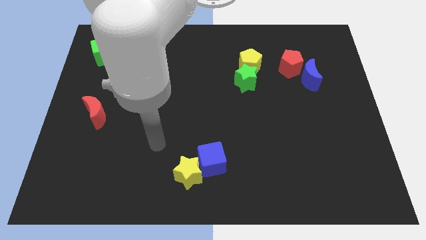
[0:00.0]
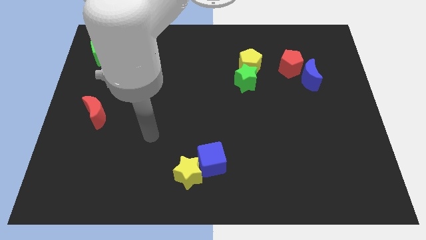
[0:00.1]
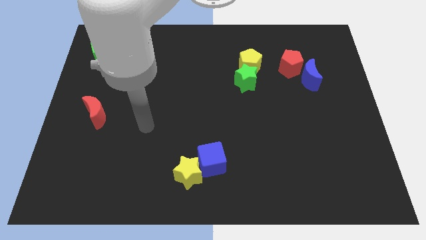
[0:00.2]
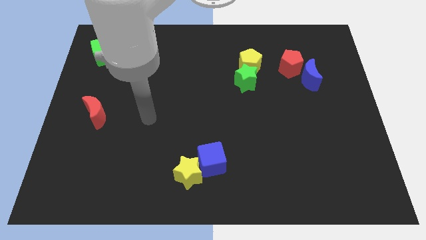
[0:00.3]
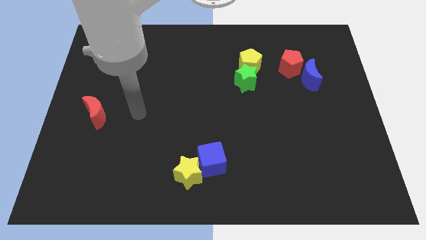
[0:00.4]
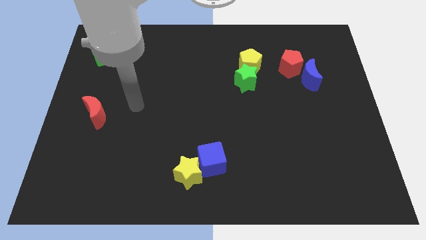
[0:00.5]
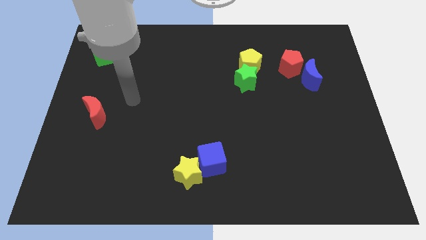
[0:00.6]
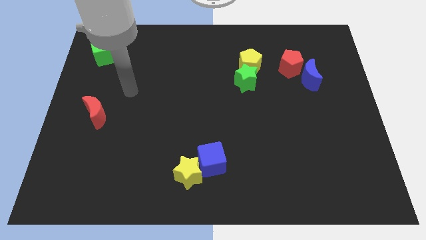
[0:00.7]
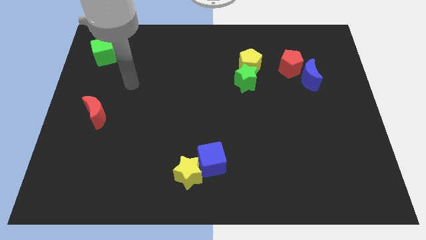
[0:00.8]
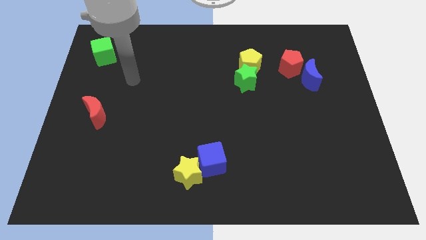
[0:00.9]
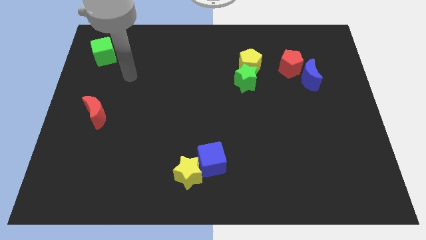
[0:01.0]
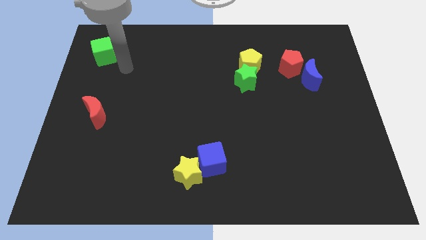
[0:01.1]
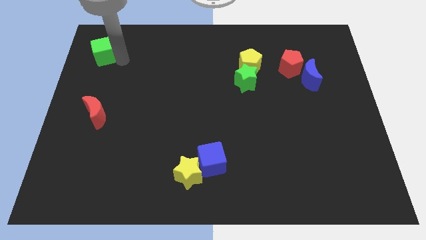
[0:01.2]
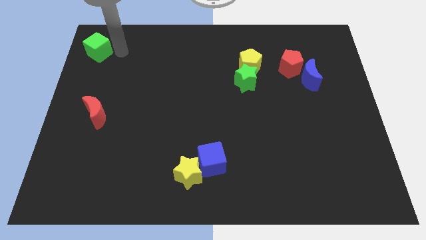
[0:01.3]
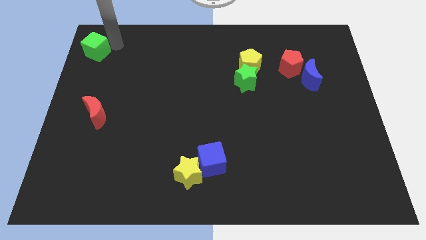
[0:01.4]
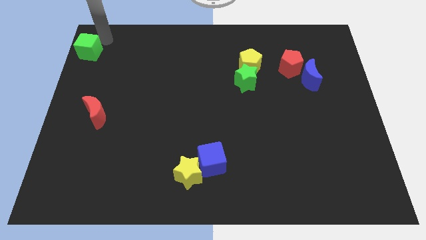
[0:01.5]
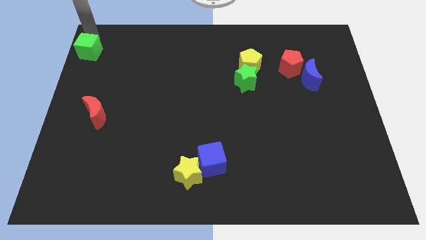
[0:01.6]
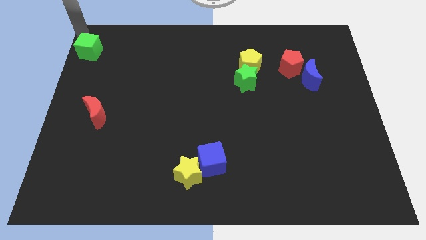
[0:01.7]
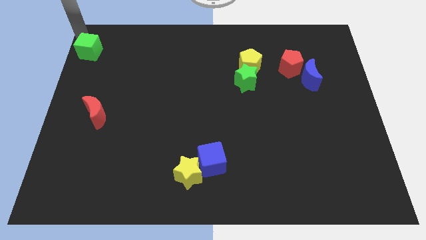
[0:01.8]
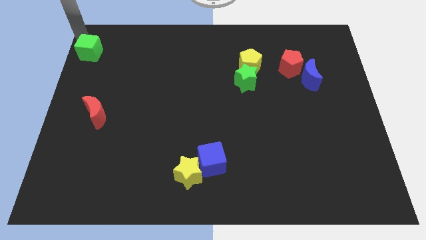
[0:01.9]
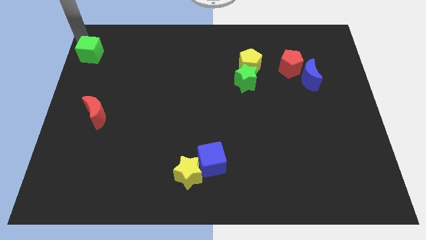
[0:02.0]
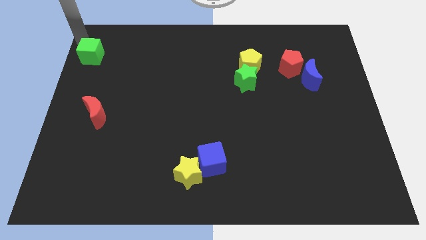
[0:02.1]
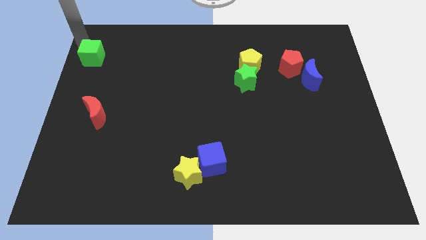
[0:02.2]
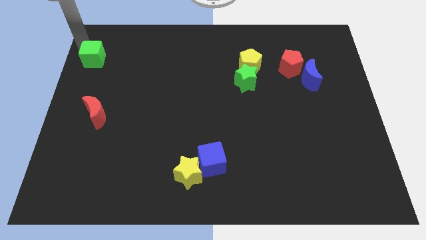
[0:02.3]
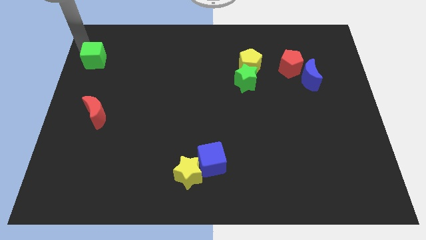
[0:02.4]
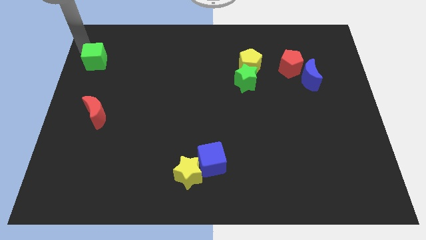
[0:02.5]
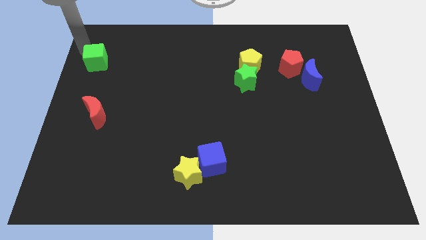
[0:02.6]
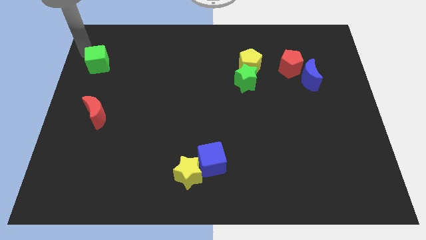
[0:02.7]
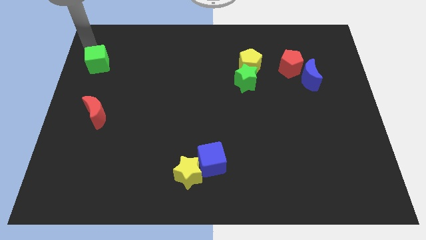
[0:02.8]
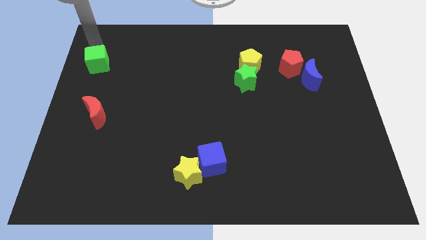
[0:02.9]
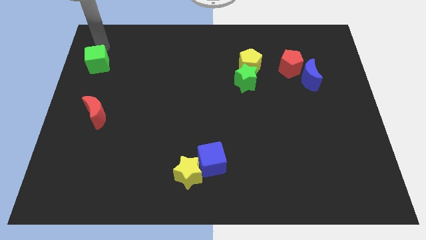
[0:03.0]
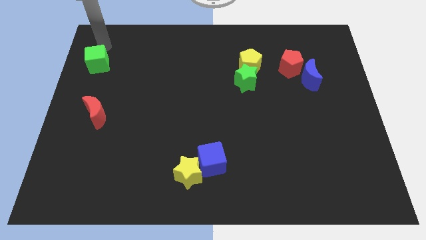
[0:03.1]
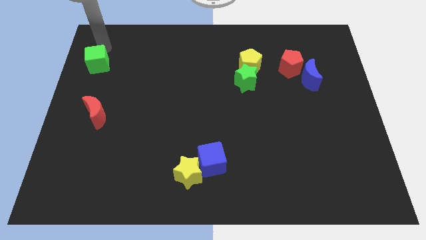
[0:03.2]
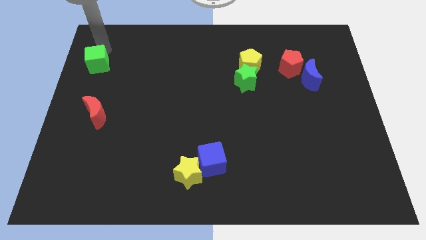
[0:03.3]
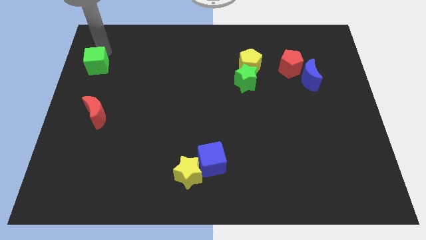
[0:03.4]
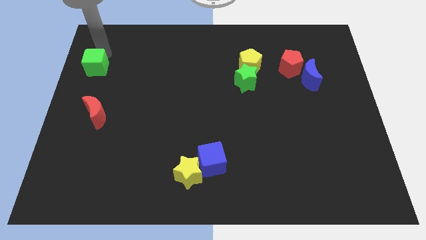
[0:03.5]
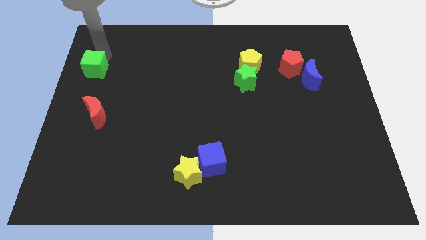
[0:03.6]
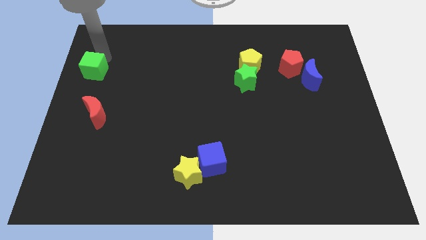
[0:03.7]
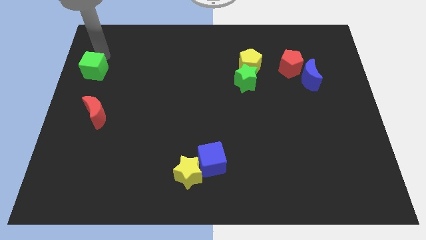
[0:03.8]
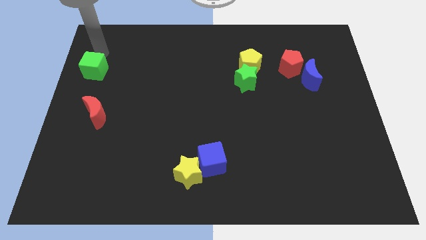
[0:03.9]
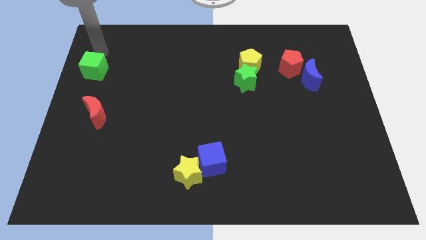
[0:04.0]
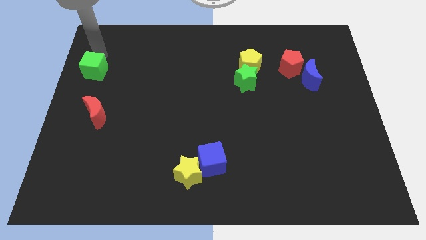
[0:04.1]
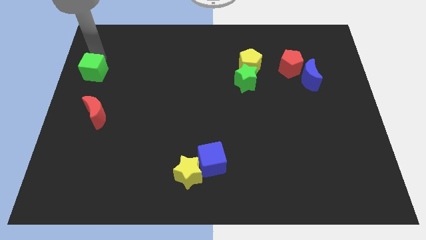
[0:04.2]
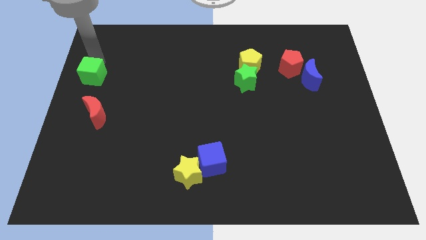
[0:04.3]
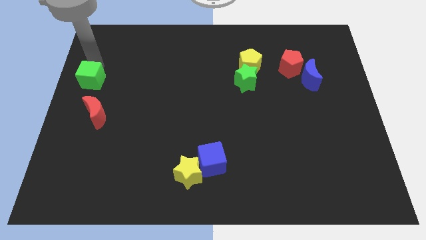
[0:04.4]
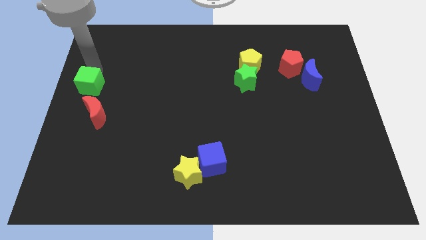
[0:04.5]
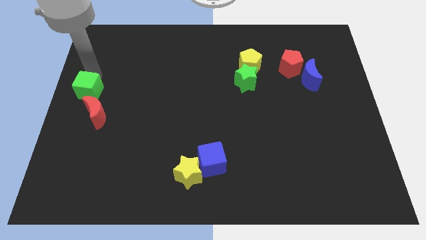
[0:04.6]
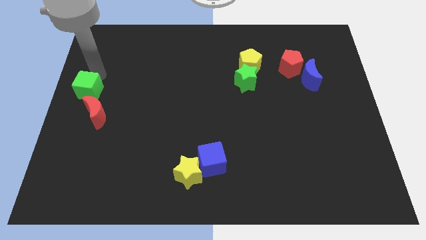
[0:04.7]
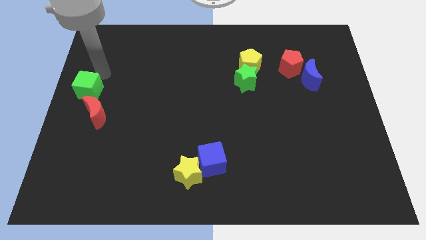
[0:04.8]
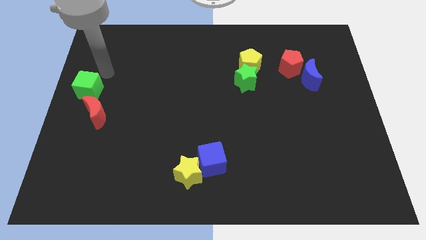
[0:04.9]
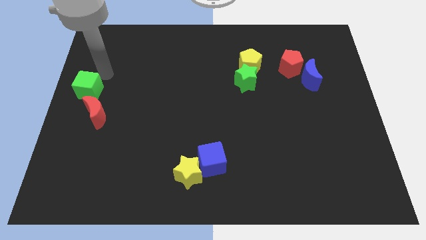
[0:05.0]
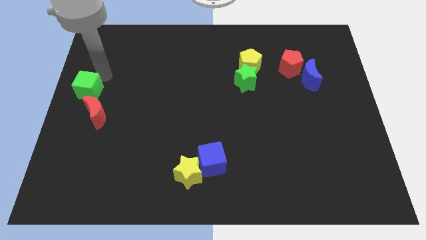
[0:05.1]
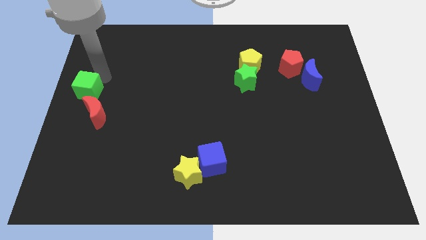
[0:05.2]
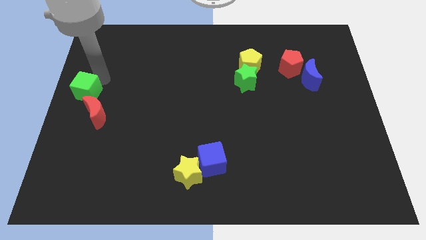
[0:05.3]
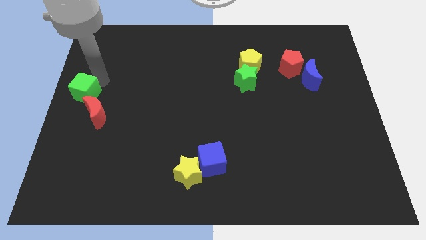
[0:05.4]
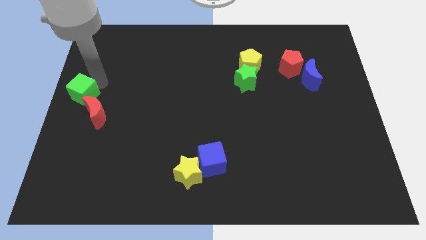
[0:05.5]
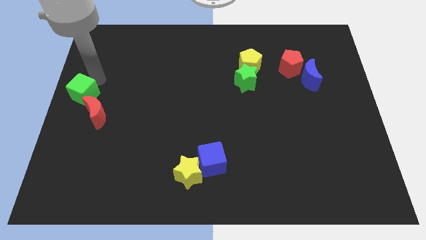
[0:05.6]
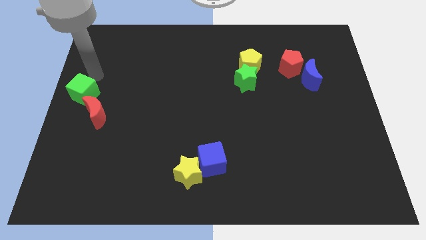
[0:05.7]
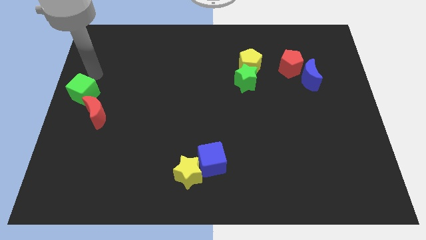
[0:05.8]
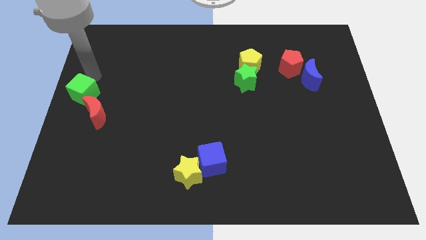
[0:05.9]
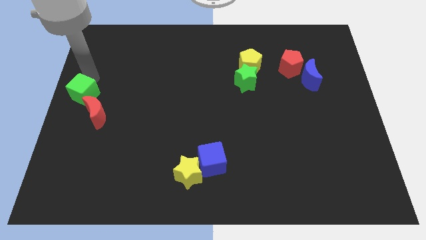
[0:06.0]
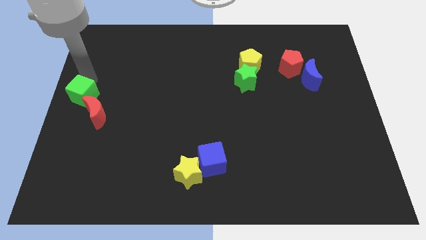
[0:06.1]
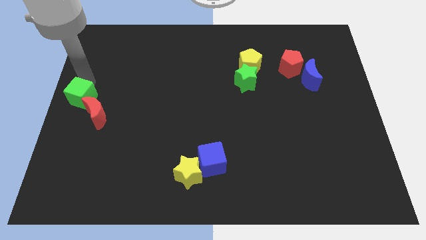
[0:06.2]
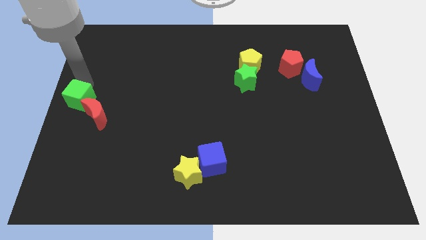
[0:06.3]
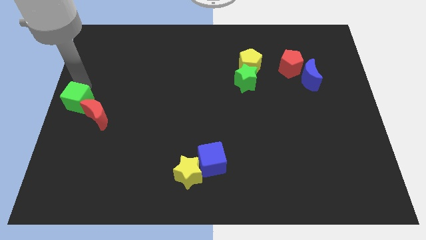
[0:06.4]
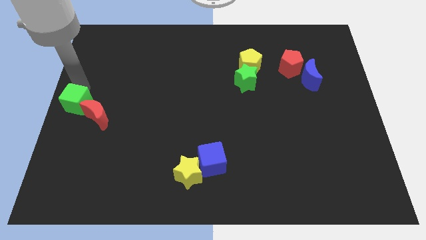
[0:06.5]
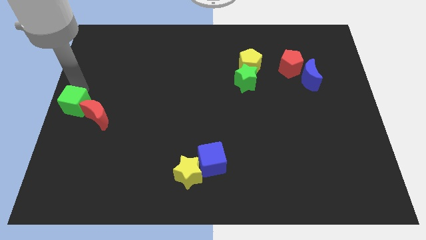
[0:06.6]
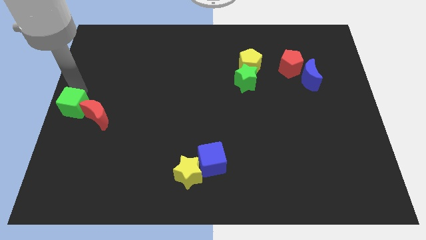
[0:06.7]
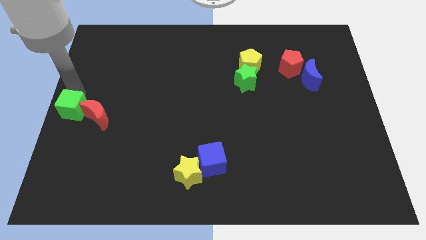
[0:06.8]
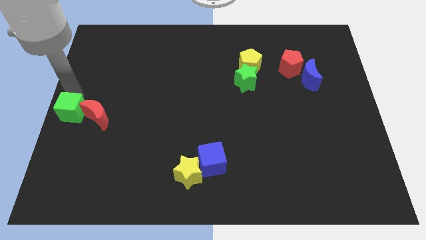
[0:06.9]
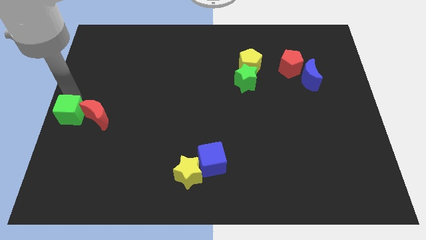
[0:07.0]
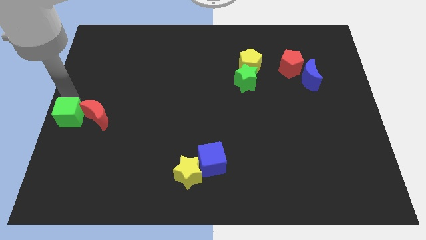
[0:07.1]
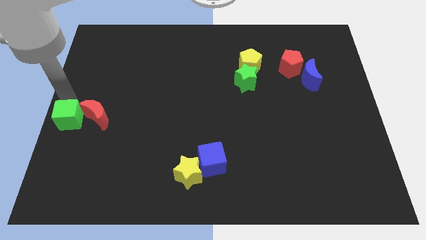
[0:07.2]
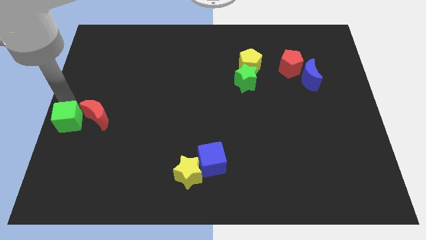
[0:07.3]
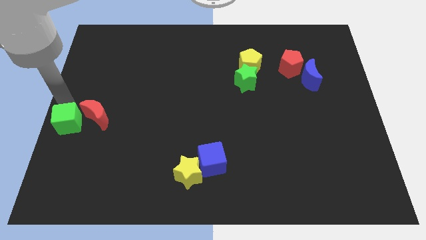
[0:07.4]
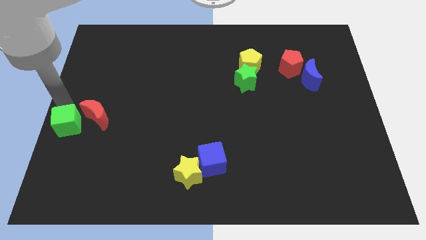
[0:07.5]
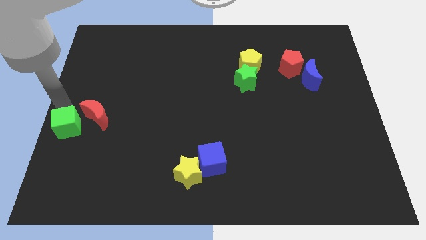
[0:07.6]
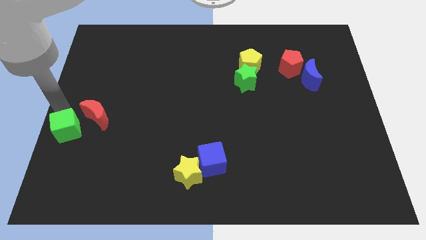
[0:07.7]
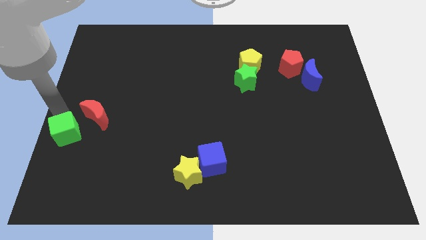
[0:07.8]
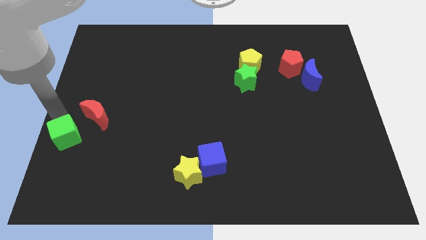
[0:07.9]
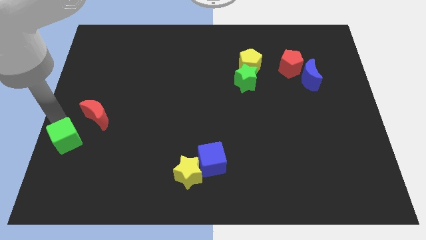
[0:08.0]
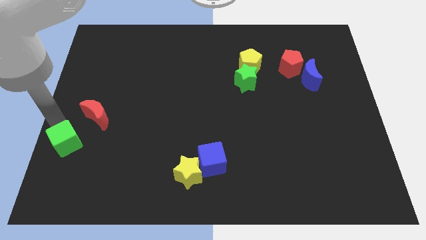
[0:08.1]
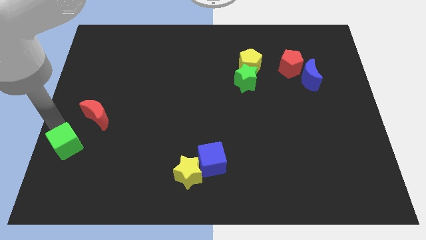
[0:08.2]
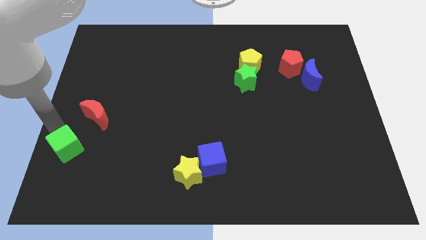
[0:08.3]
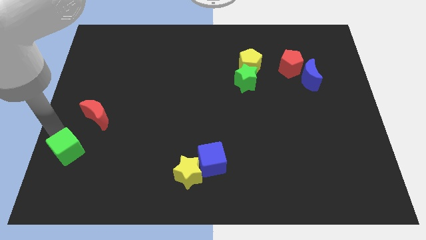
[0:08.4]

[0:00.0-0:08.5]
put the green cube to the bottom of the red moon
